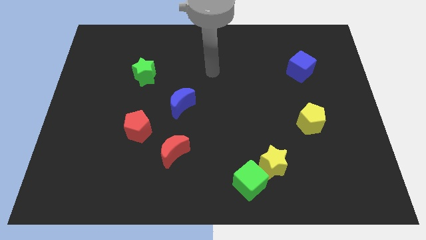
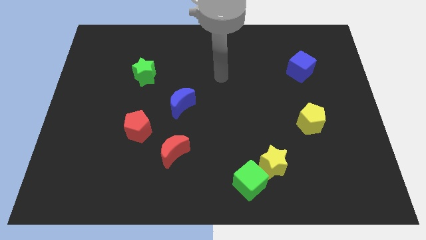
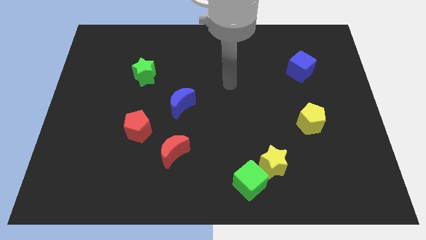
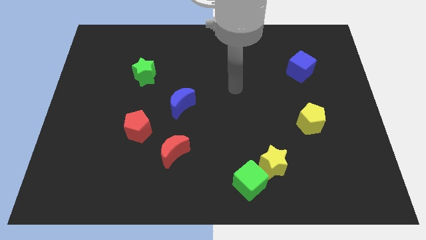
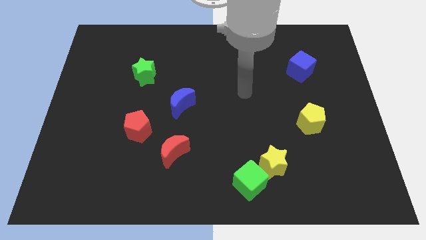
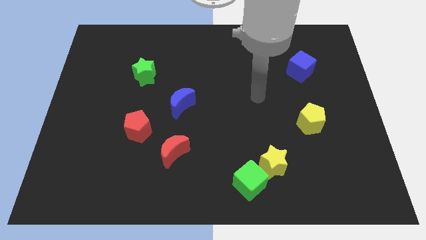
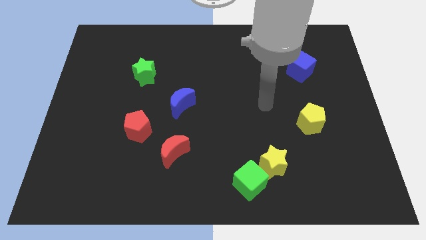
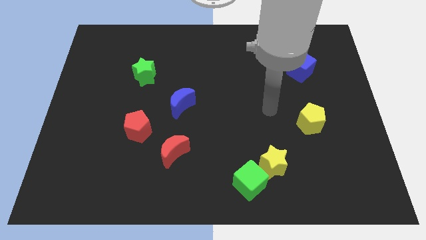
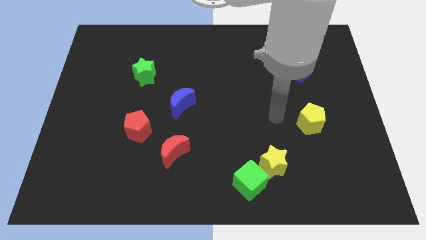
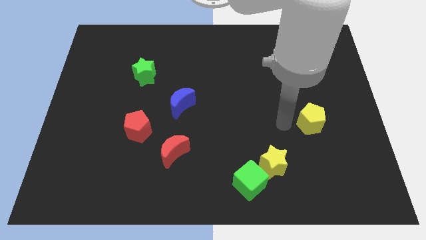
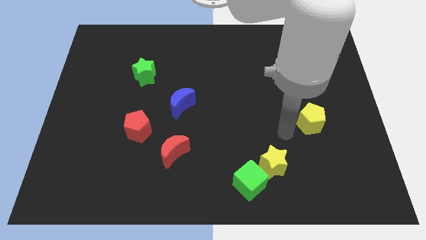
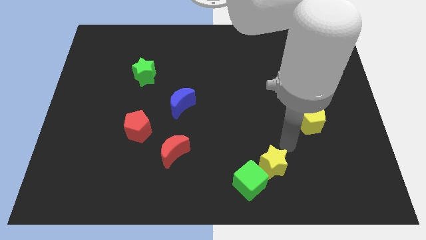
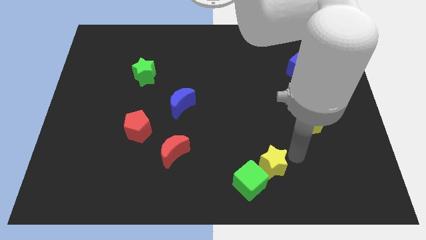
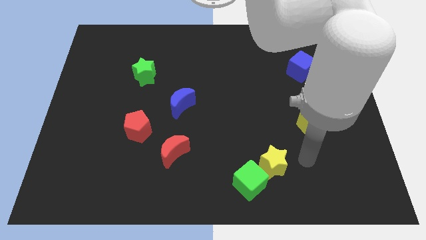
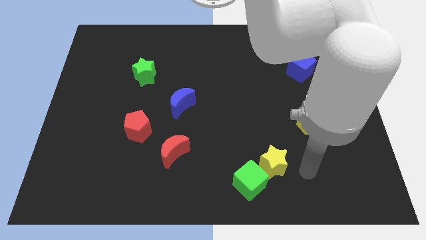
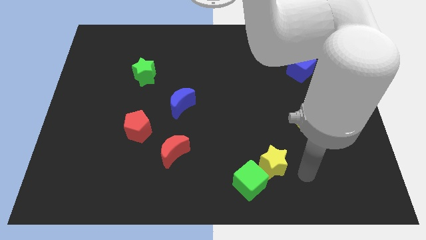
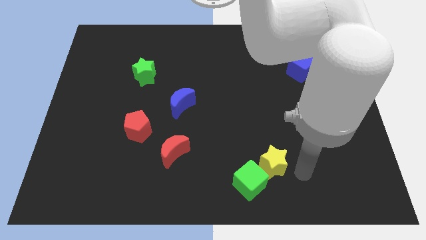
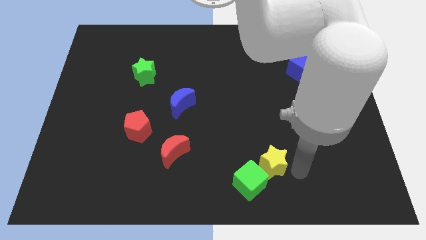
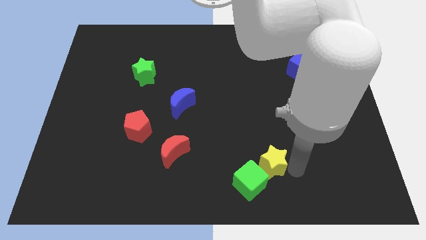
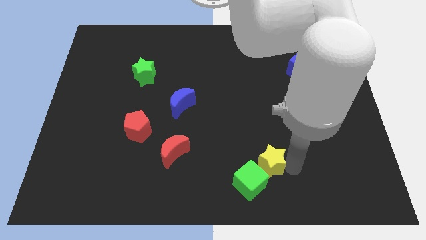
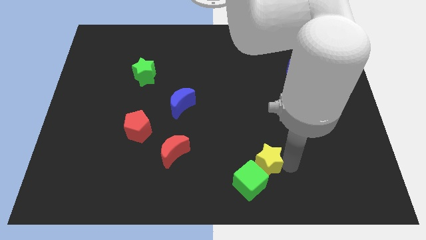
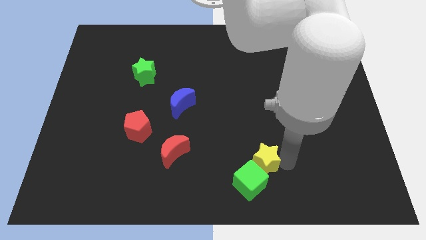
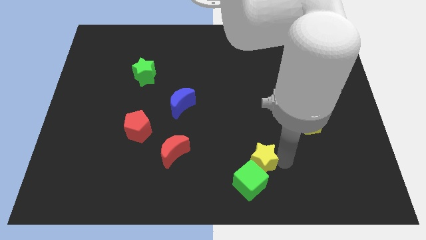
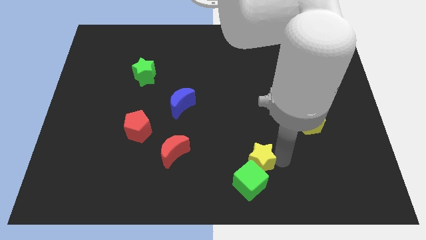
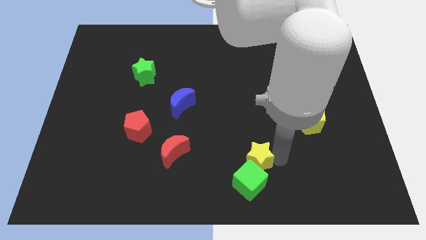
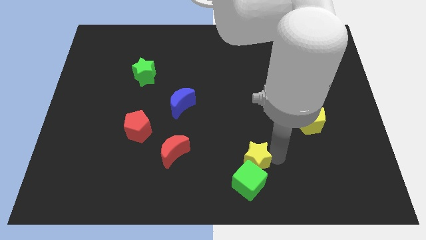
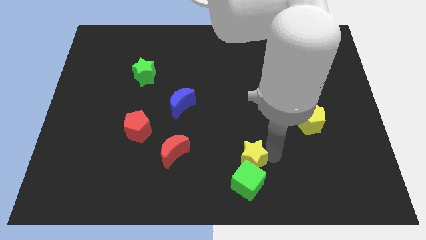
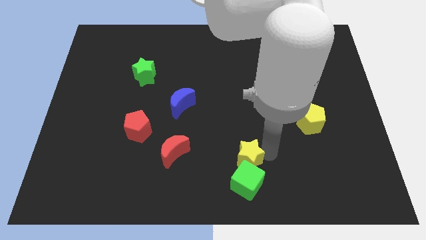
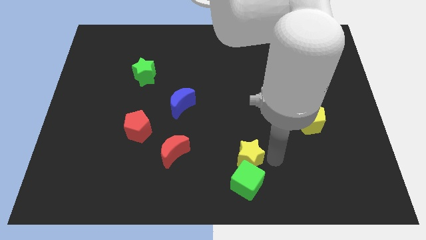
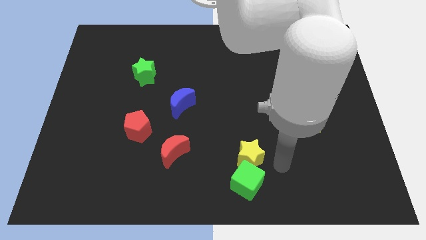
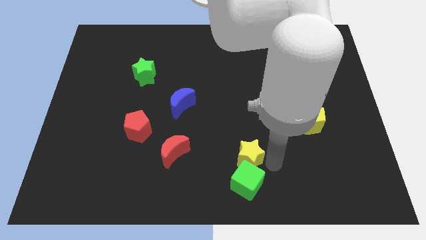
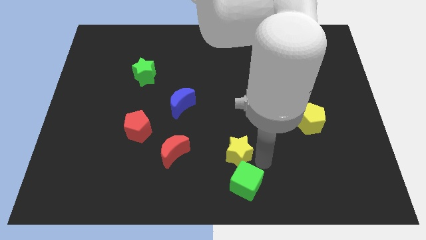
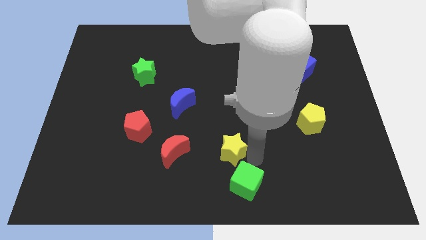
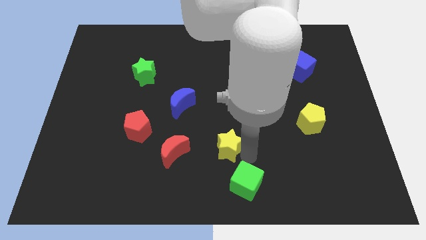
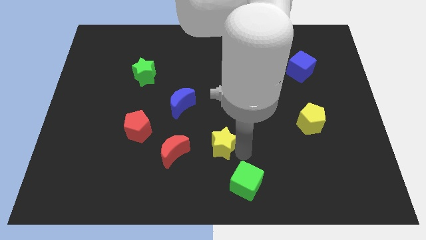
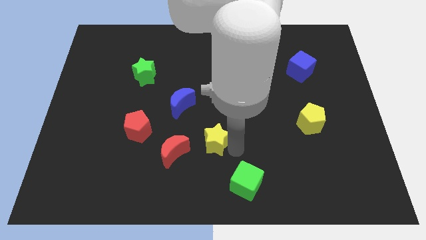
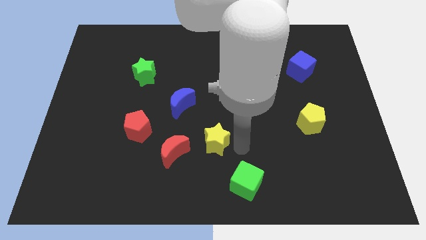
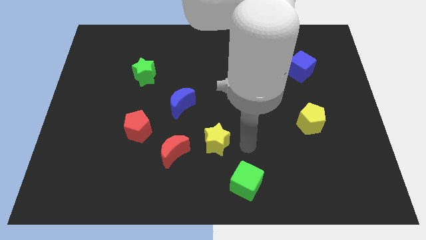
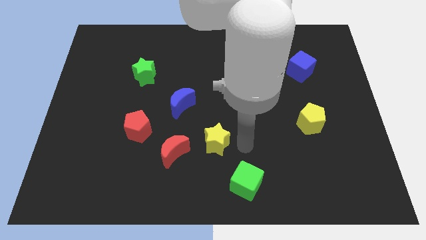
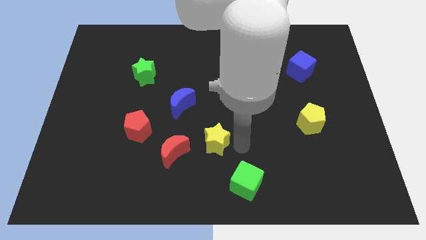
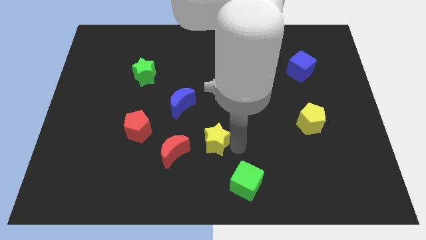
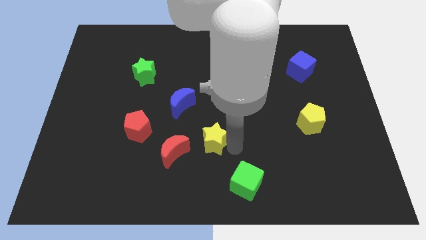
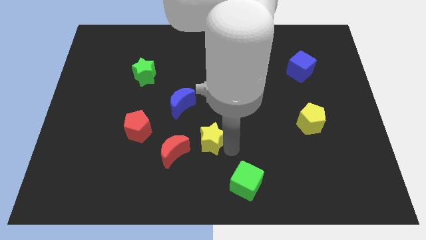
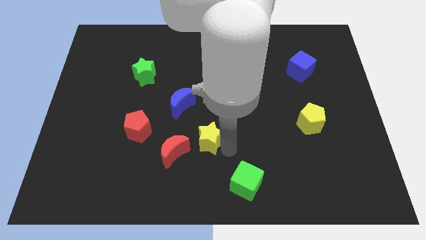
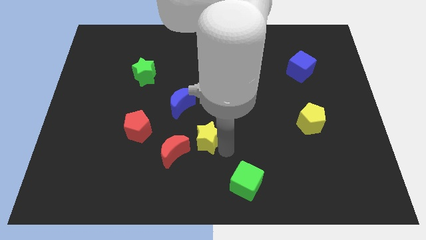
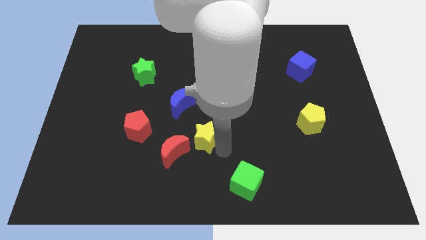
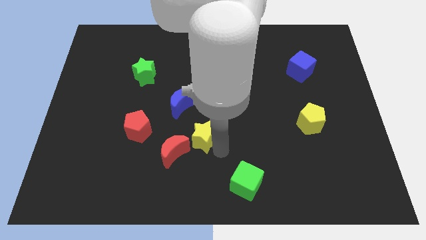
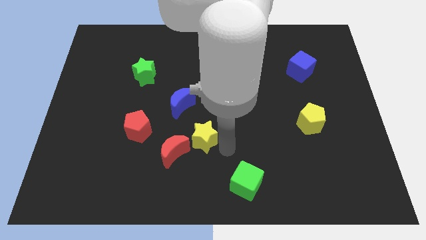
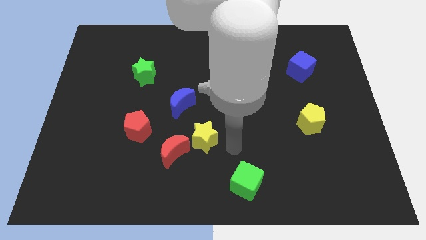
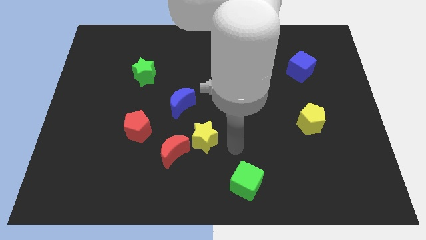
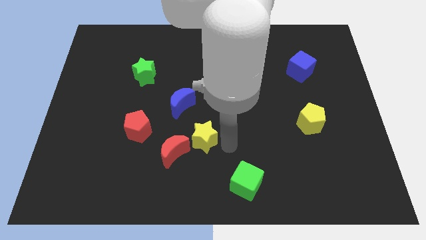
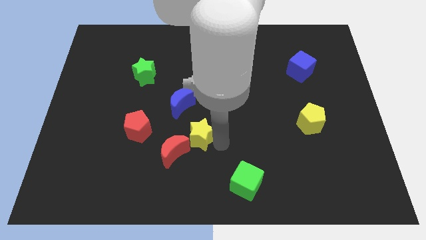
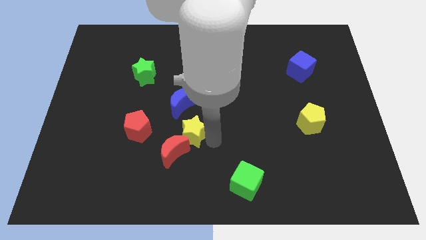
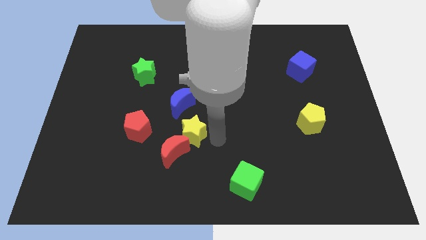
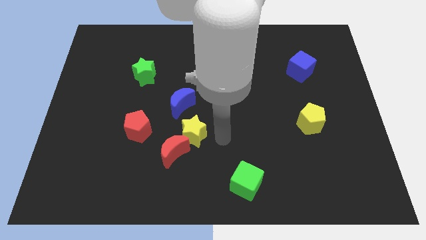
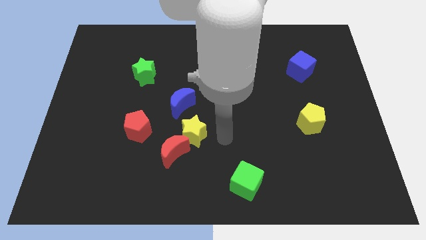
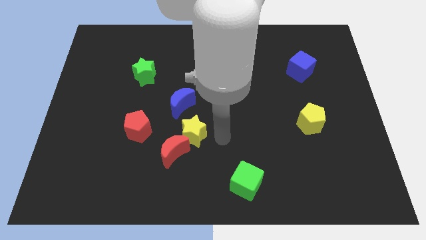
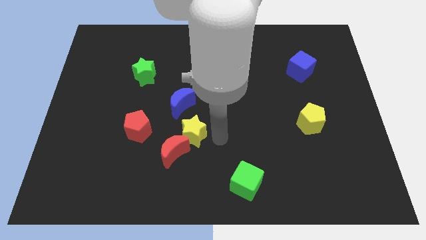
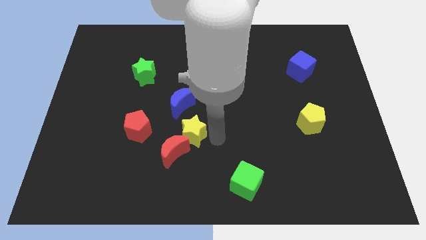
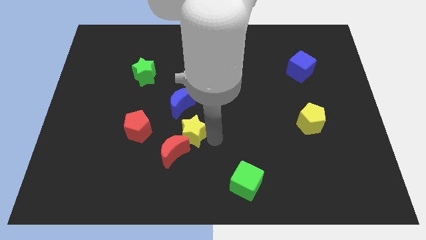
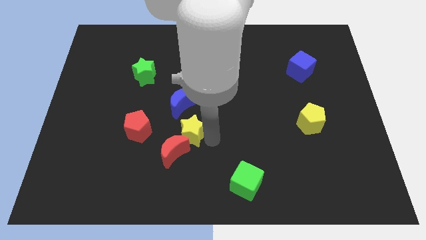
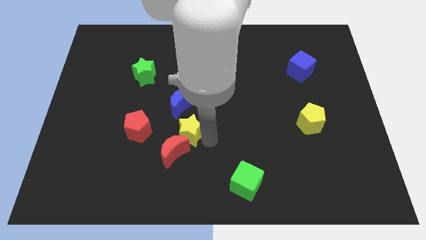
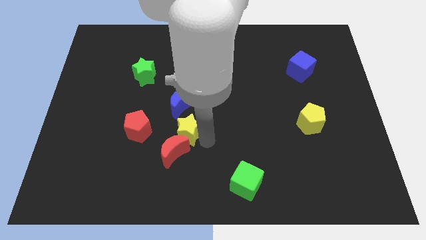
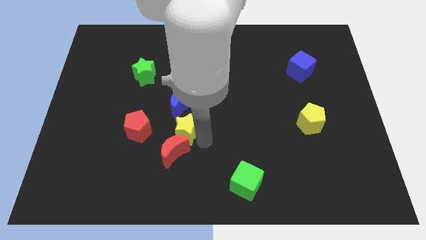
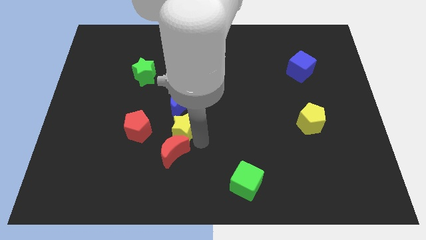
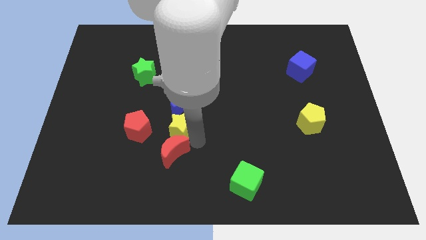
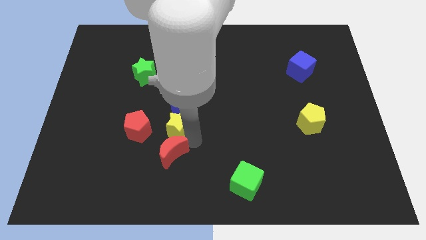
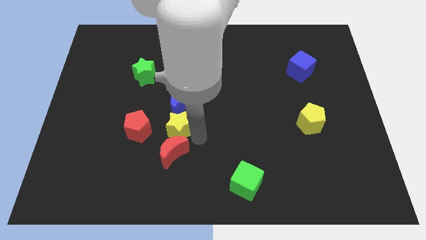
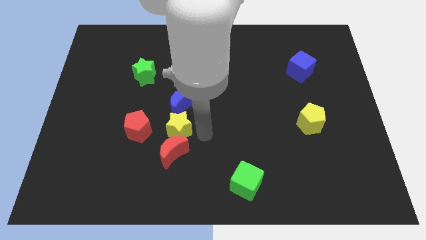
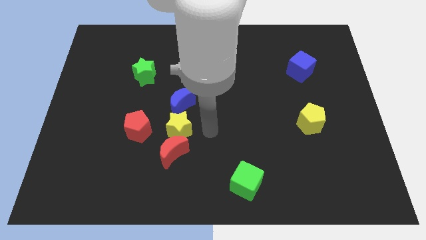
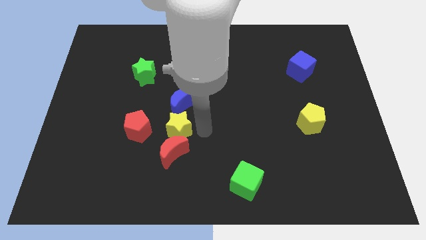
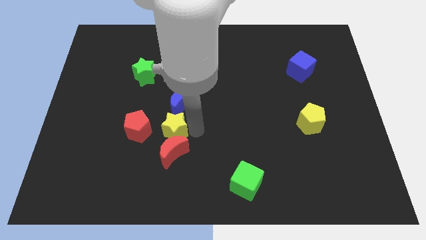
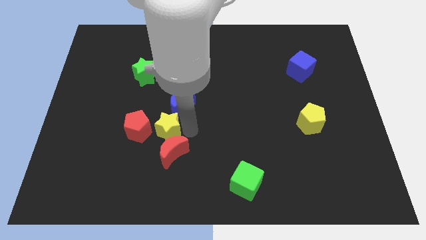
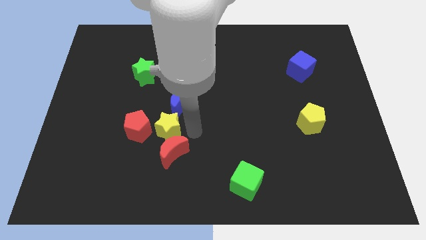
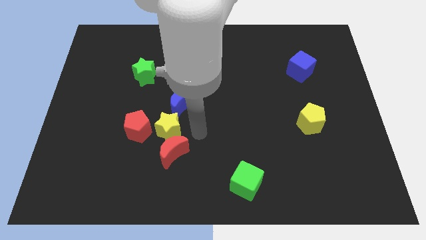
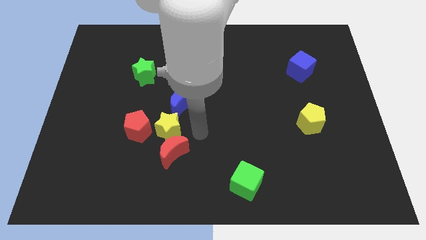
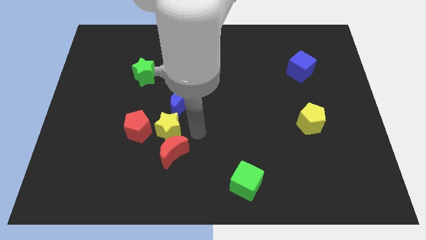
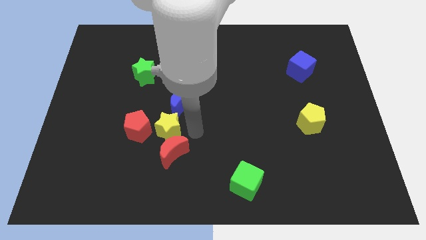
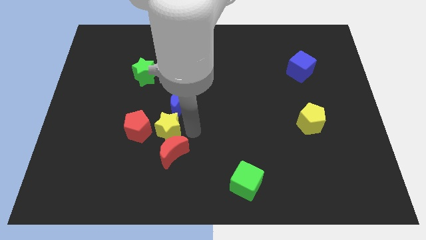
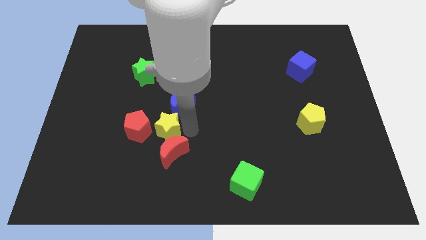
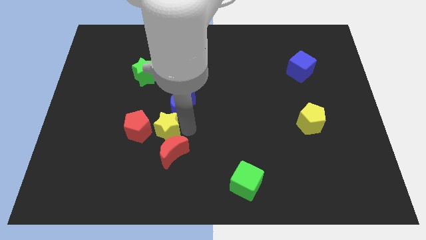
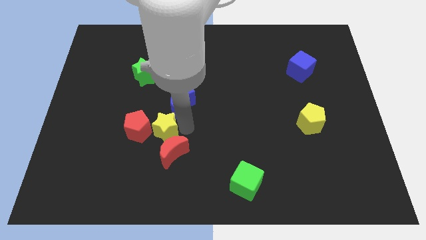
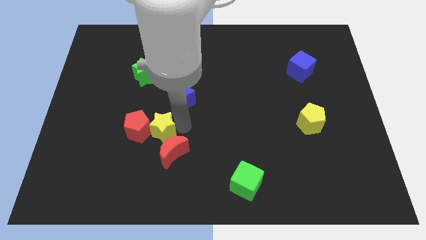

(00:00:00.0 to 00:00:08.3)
put the yellow star close to the red pentagon
